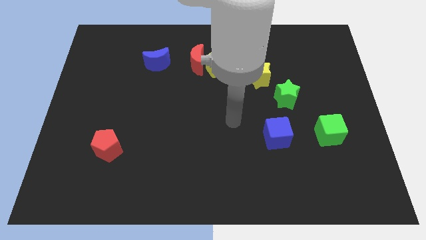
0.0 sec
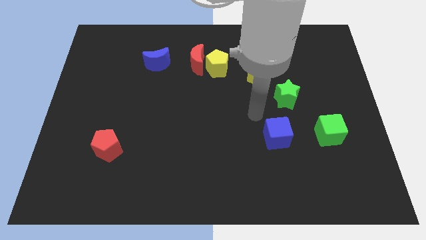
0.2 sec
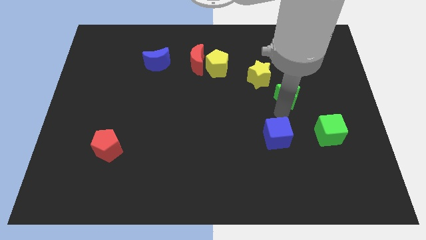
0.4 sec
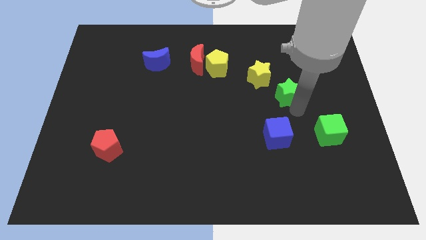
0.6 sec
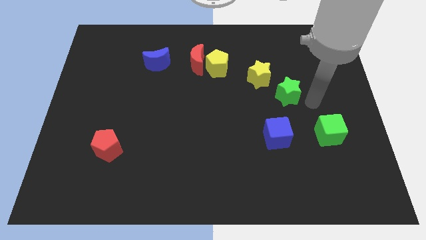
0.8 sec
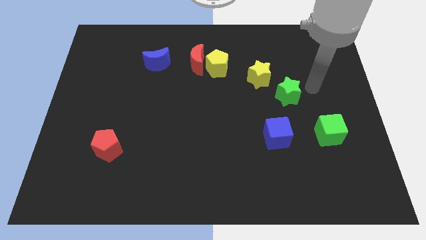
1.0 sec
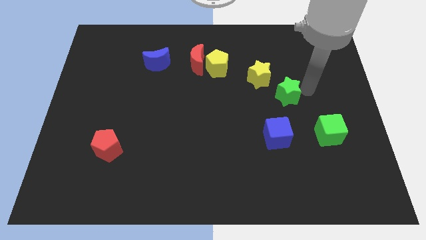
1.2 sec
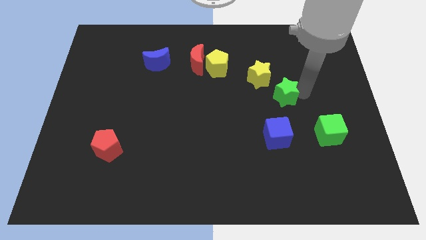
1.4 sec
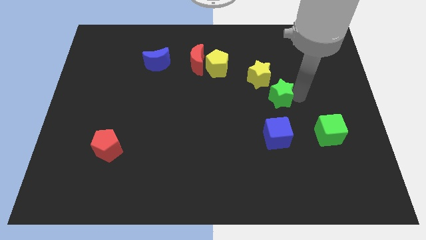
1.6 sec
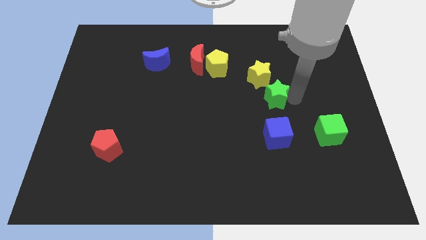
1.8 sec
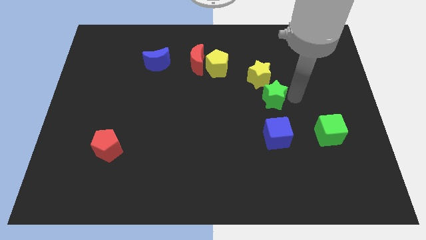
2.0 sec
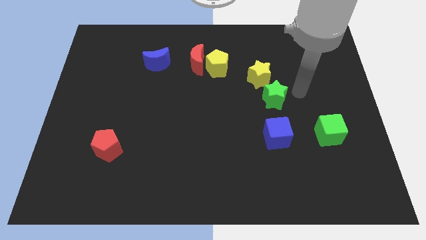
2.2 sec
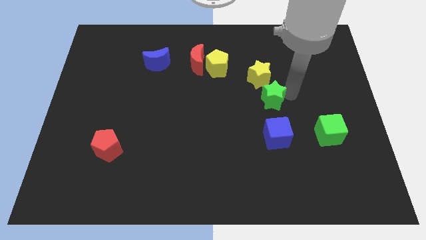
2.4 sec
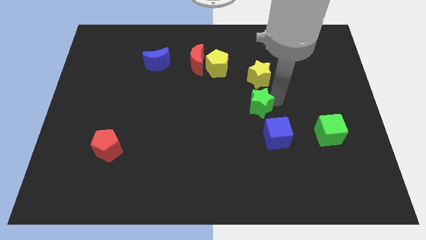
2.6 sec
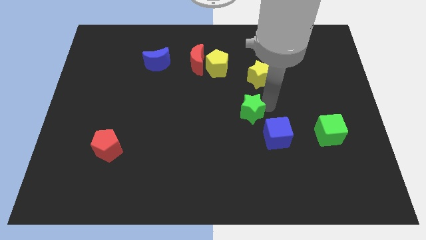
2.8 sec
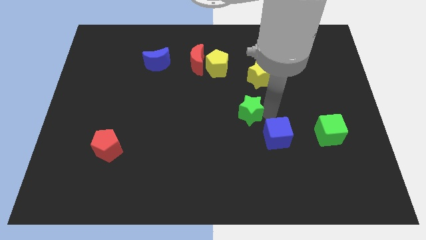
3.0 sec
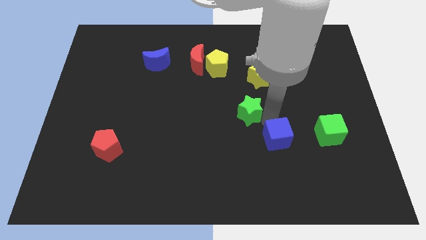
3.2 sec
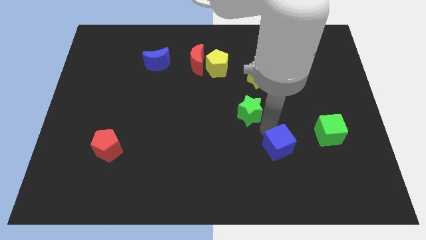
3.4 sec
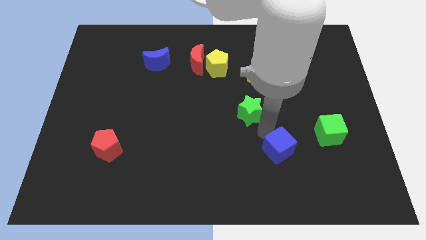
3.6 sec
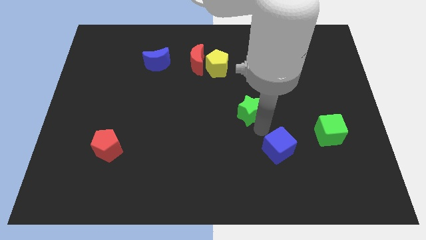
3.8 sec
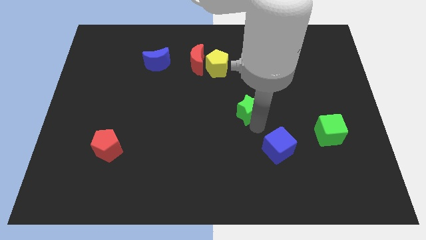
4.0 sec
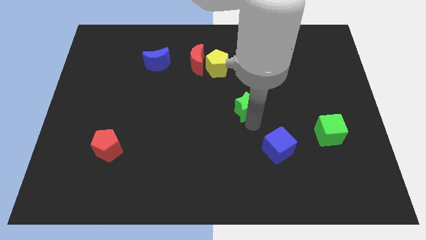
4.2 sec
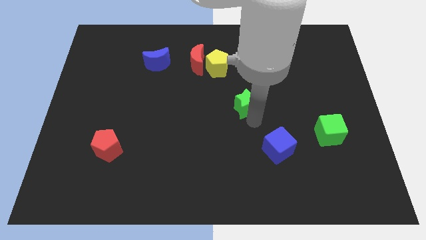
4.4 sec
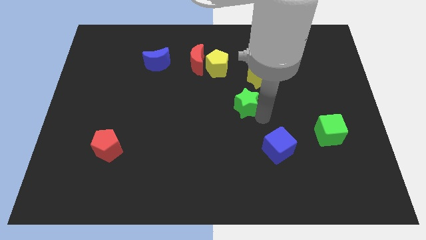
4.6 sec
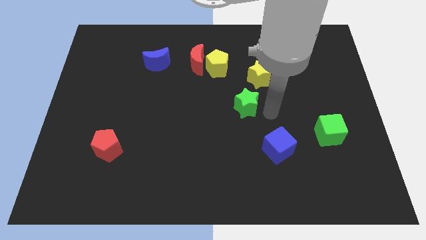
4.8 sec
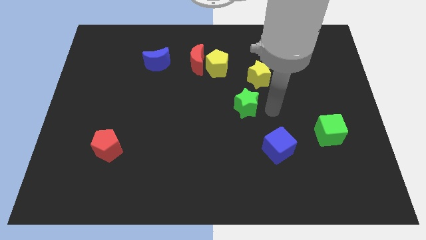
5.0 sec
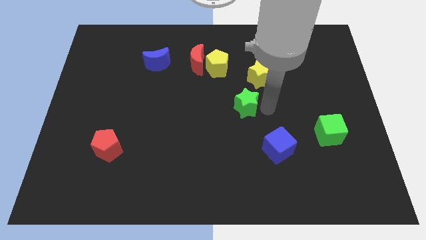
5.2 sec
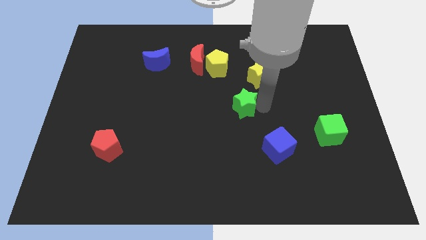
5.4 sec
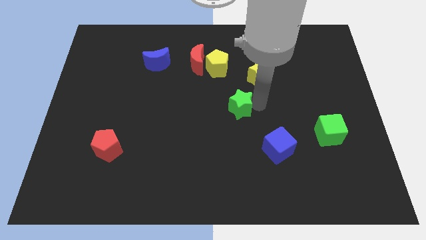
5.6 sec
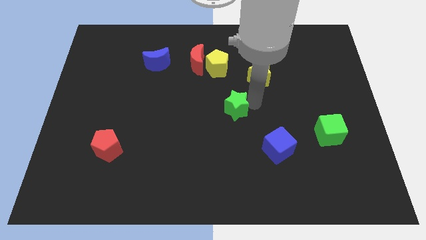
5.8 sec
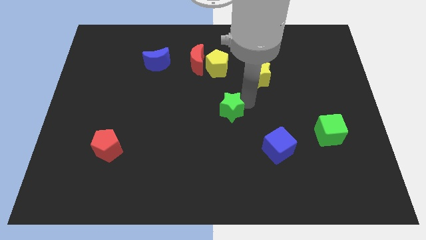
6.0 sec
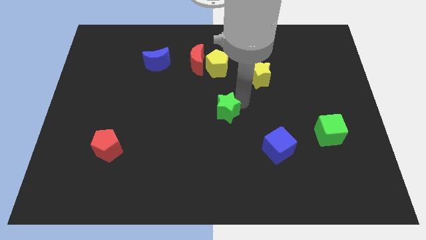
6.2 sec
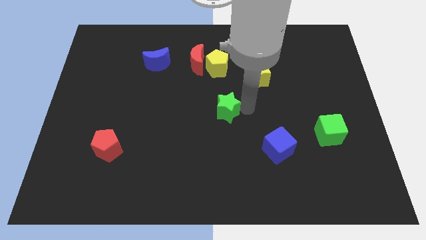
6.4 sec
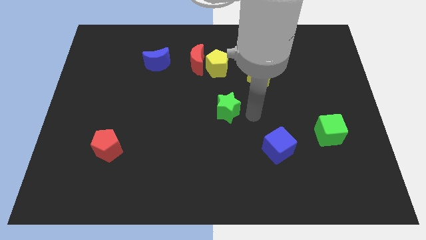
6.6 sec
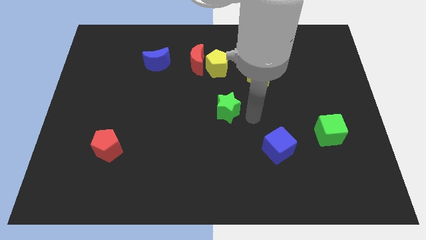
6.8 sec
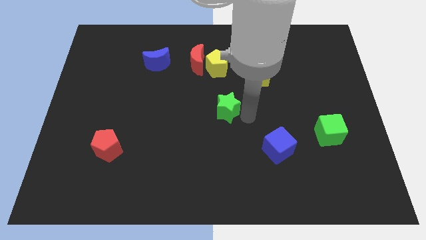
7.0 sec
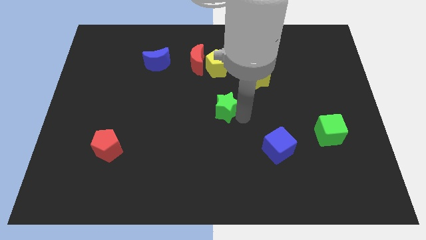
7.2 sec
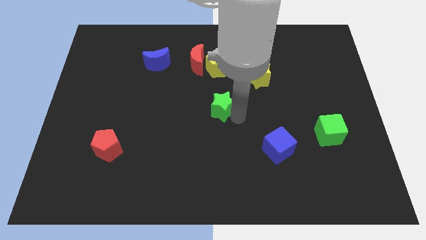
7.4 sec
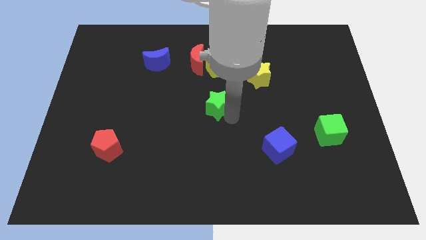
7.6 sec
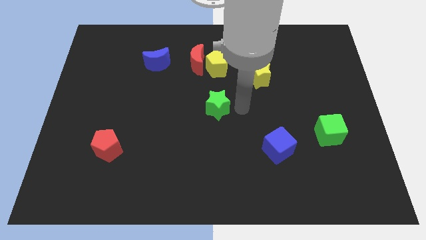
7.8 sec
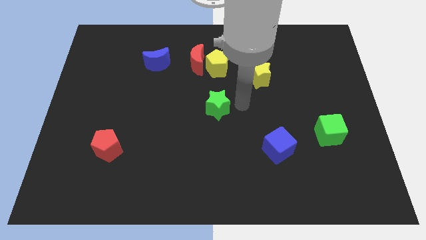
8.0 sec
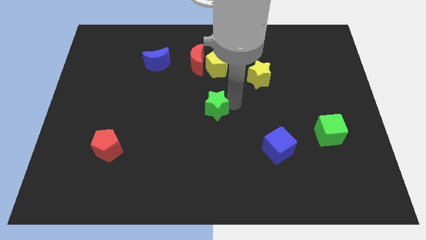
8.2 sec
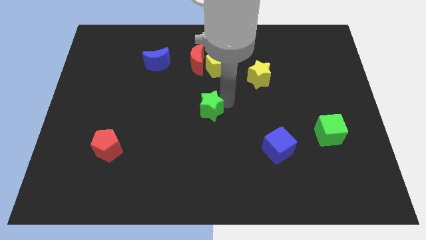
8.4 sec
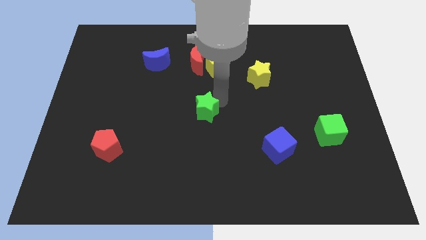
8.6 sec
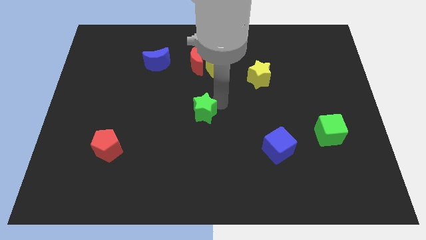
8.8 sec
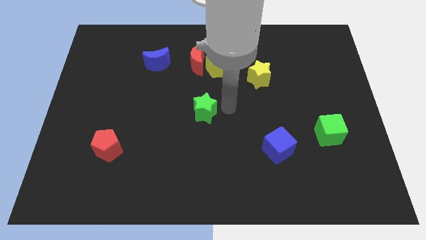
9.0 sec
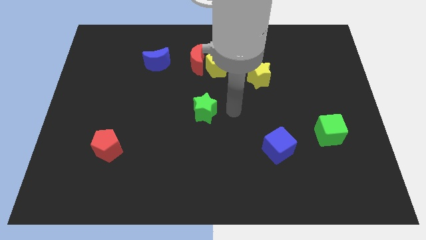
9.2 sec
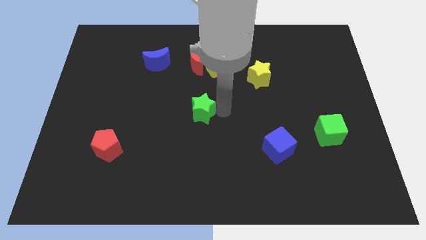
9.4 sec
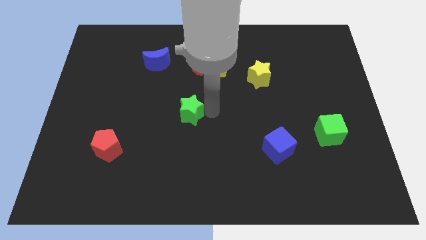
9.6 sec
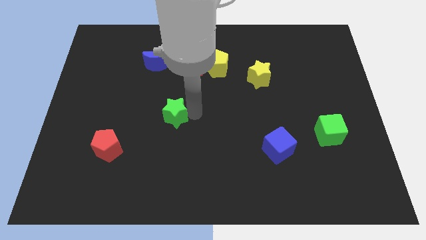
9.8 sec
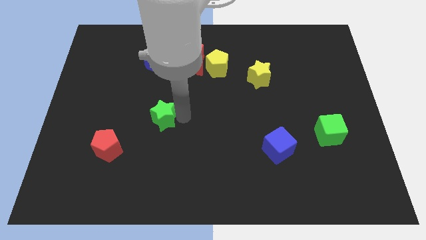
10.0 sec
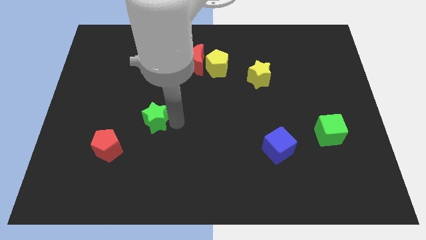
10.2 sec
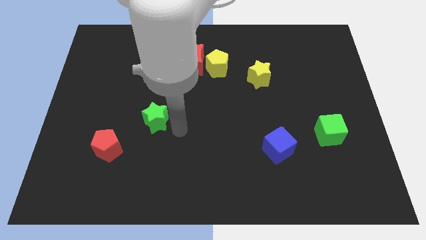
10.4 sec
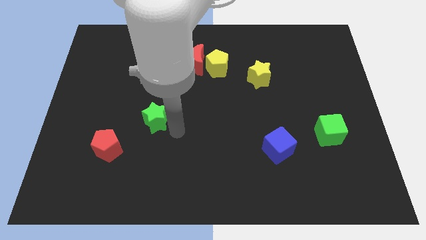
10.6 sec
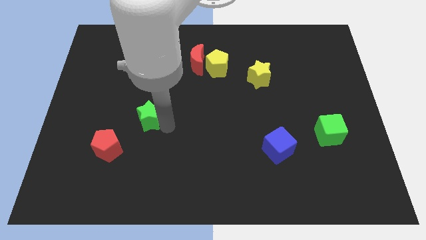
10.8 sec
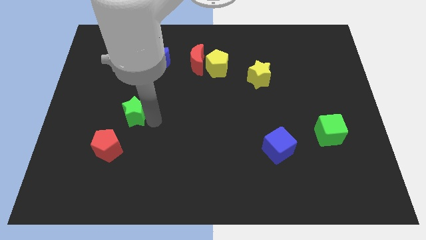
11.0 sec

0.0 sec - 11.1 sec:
slide the green star to the top side of the red pentagon
